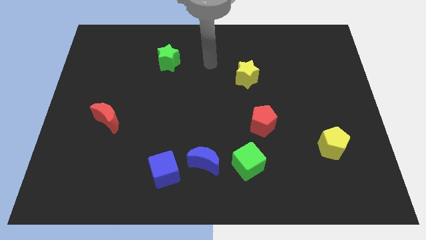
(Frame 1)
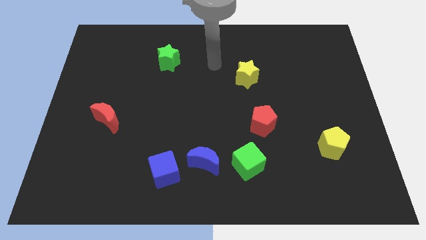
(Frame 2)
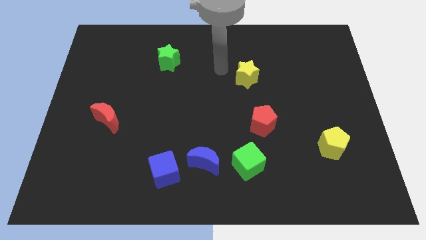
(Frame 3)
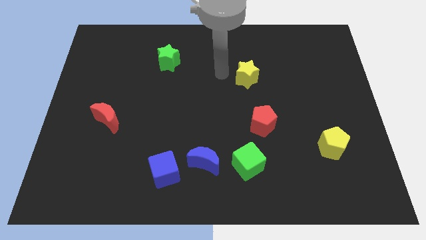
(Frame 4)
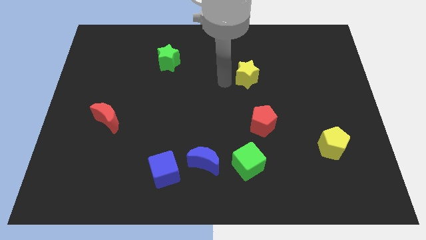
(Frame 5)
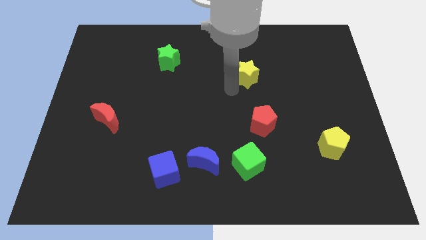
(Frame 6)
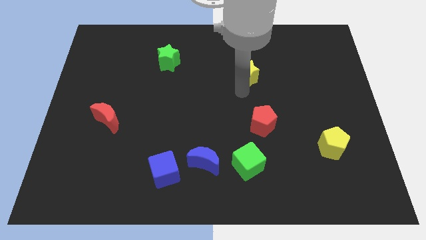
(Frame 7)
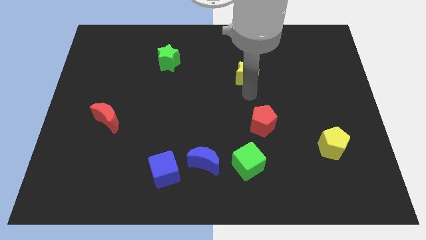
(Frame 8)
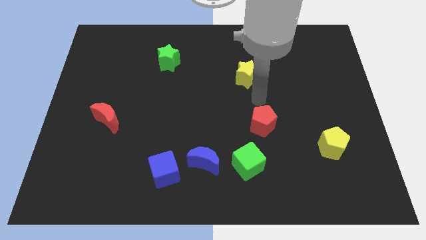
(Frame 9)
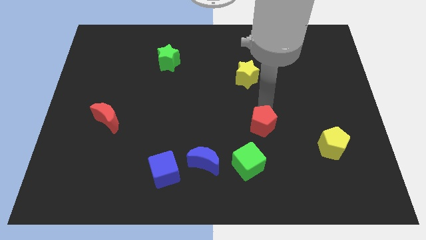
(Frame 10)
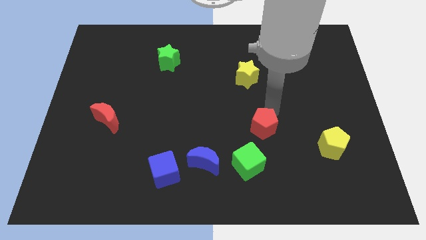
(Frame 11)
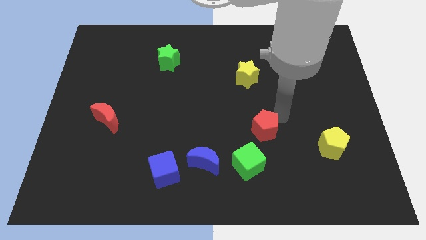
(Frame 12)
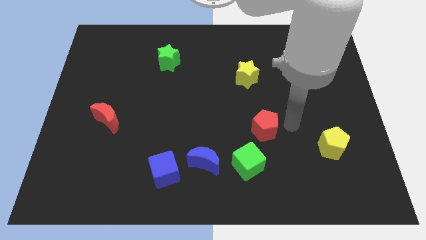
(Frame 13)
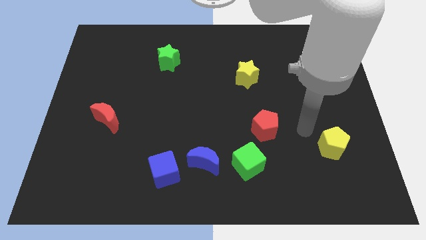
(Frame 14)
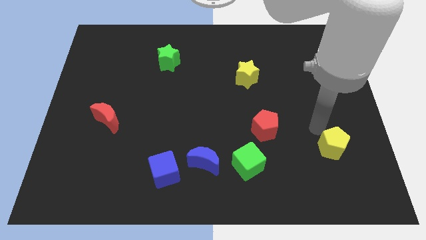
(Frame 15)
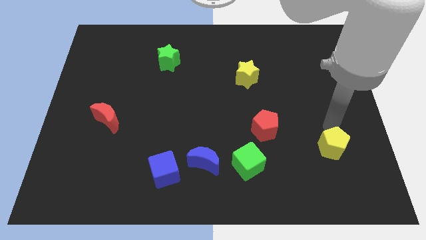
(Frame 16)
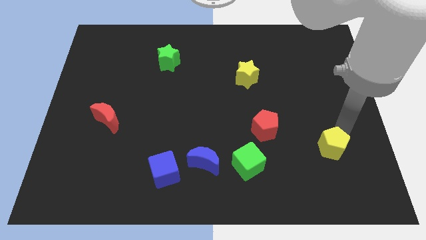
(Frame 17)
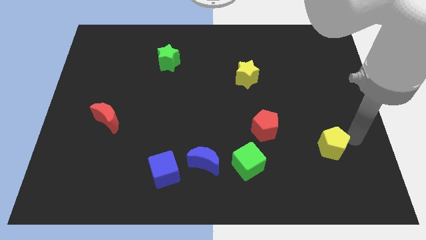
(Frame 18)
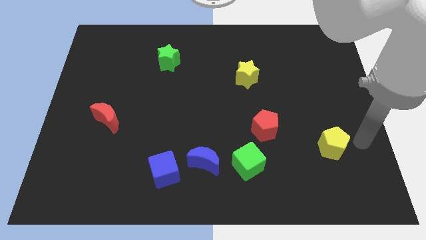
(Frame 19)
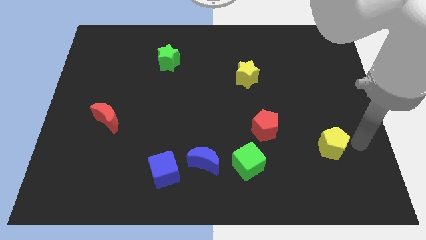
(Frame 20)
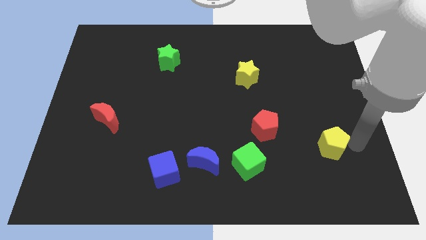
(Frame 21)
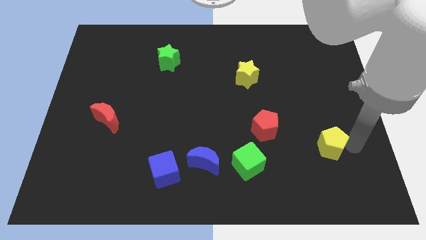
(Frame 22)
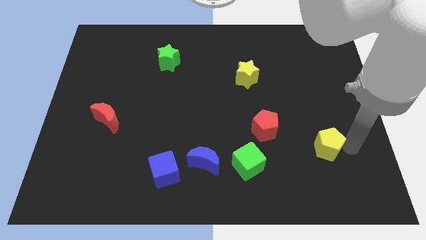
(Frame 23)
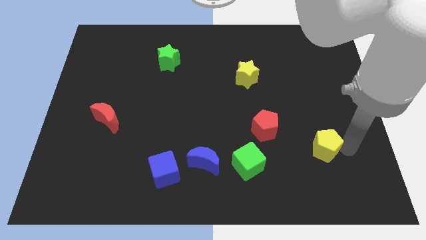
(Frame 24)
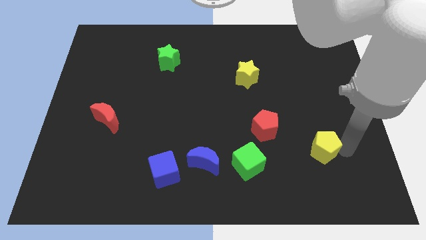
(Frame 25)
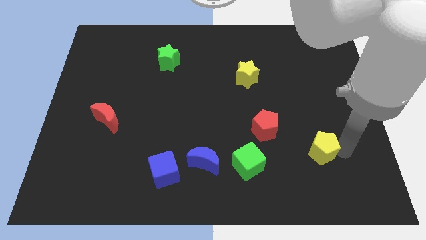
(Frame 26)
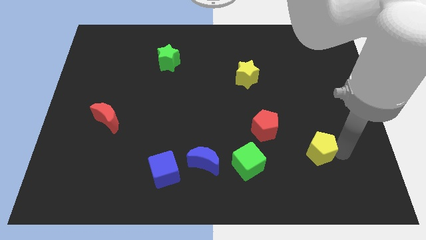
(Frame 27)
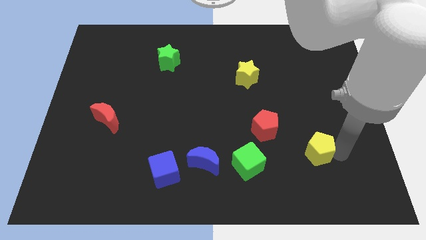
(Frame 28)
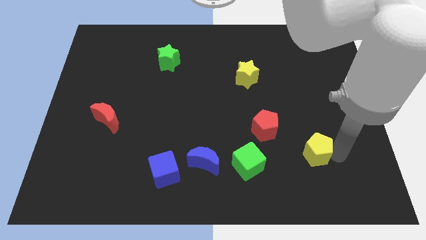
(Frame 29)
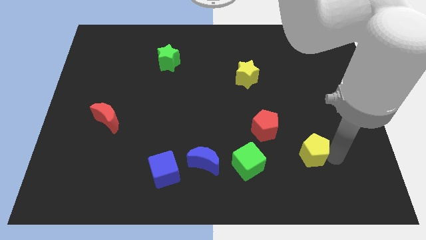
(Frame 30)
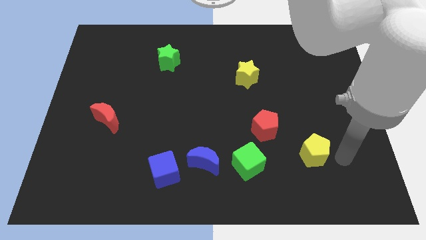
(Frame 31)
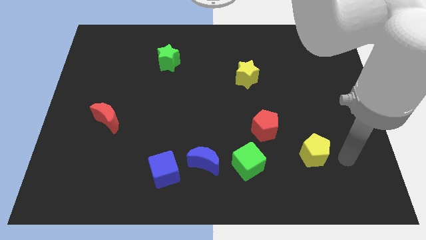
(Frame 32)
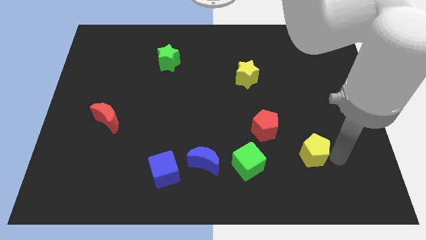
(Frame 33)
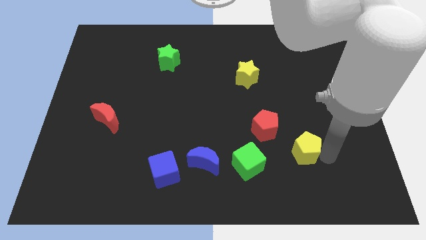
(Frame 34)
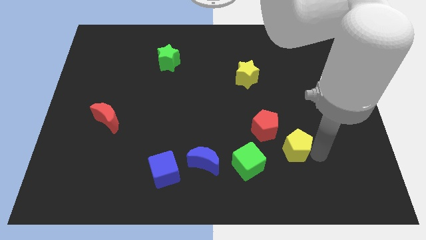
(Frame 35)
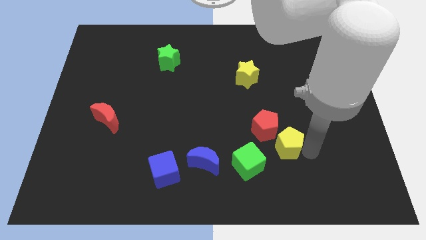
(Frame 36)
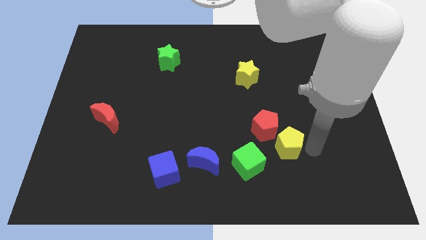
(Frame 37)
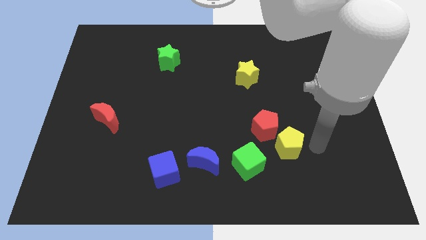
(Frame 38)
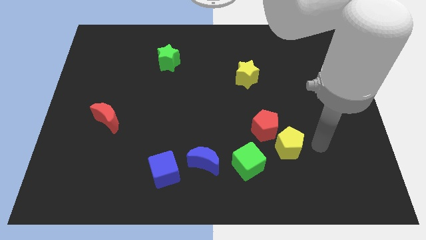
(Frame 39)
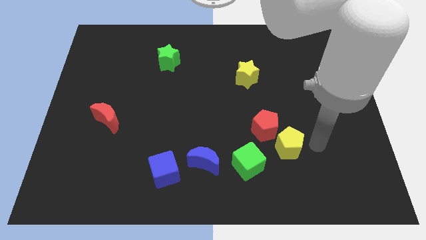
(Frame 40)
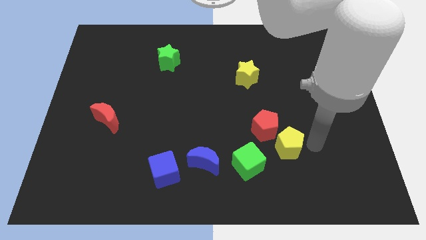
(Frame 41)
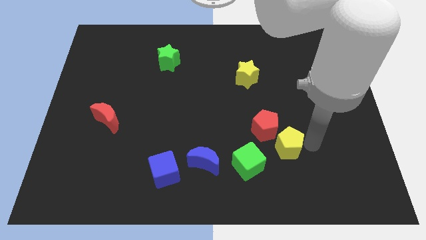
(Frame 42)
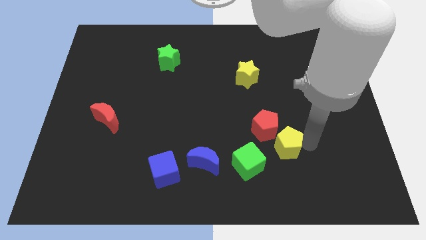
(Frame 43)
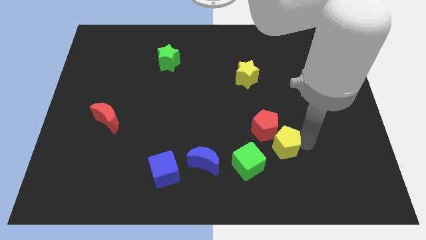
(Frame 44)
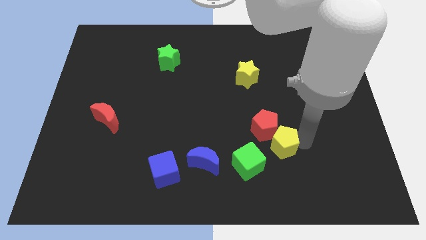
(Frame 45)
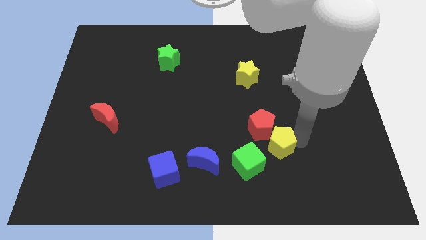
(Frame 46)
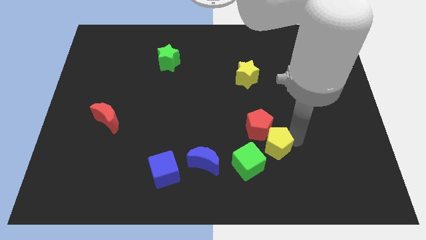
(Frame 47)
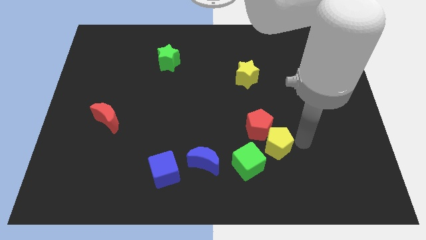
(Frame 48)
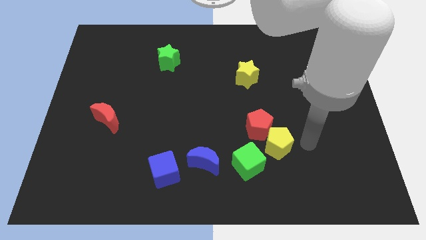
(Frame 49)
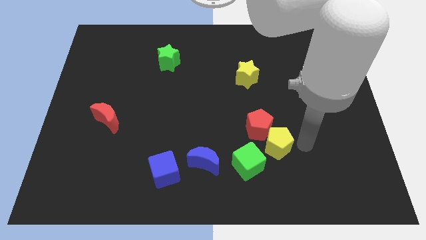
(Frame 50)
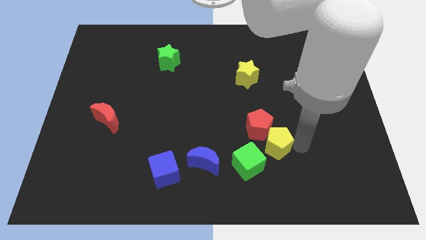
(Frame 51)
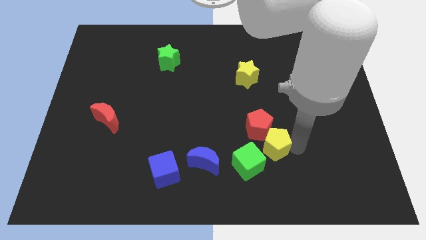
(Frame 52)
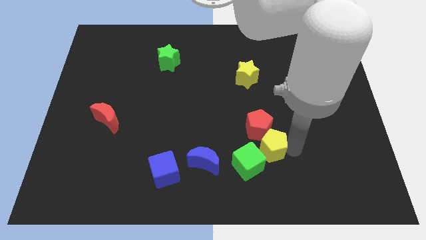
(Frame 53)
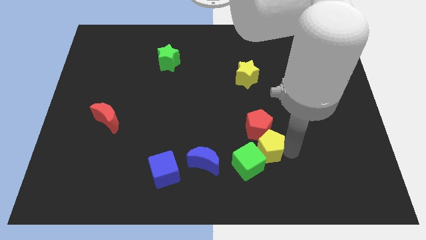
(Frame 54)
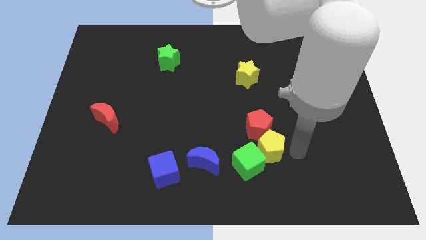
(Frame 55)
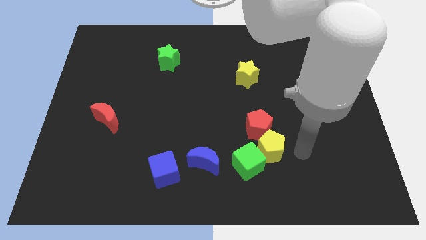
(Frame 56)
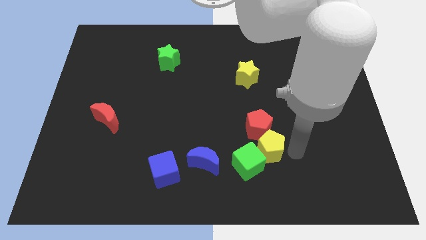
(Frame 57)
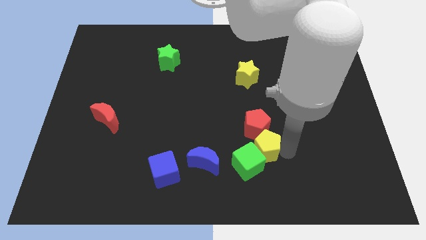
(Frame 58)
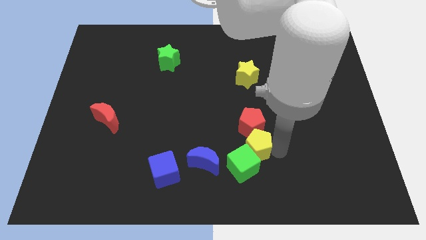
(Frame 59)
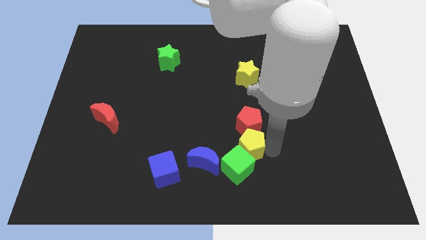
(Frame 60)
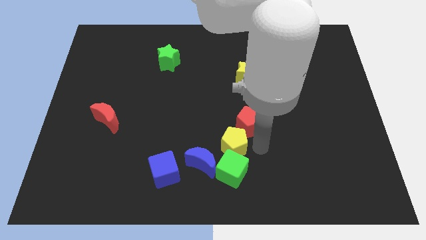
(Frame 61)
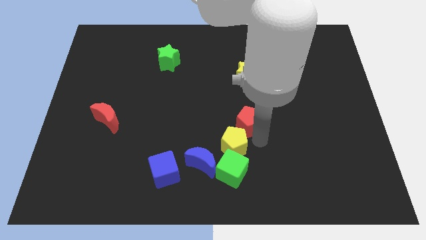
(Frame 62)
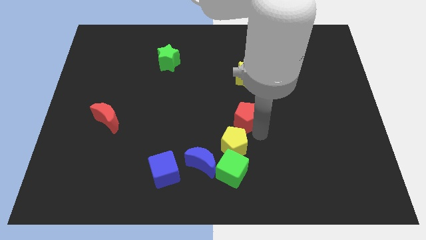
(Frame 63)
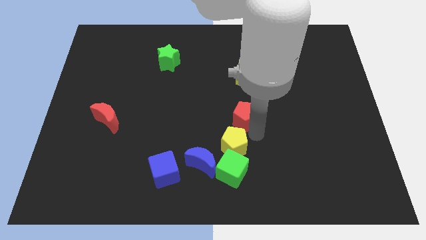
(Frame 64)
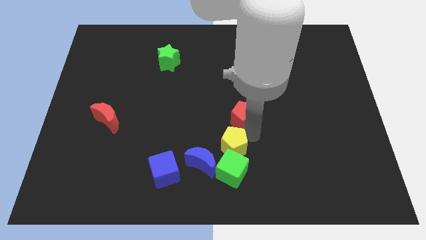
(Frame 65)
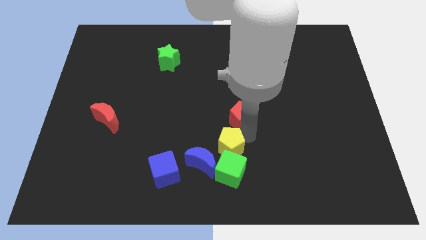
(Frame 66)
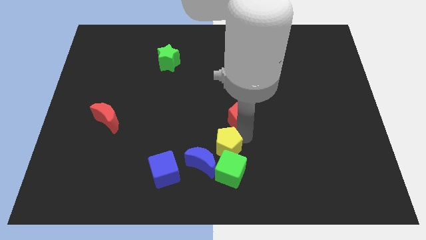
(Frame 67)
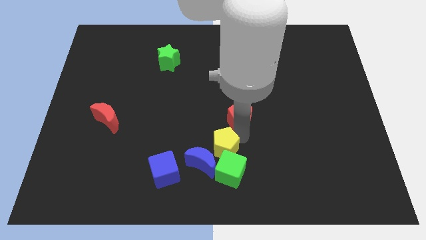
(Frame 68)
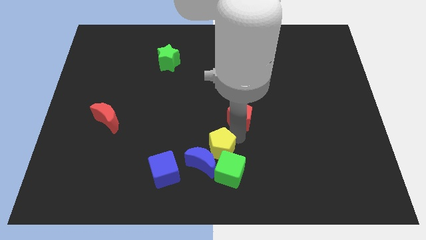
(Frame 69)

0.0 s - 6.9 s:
put the yellow pentagon to the blue moon
